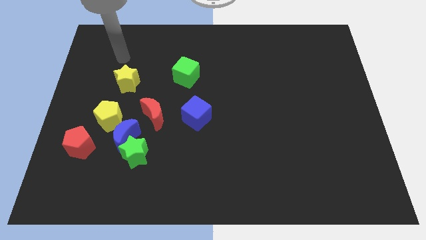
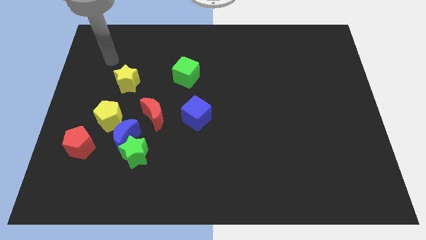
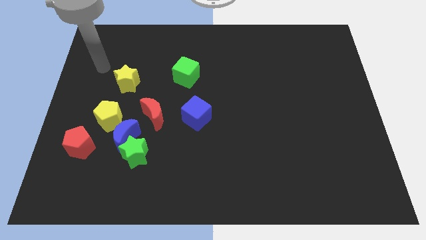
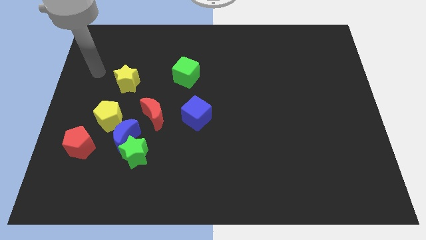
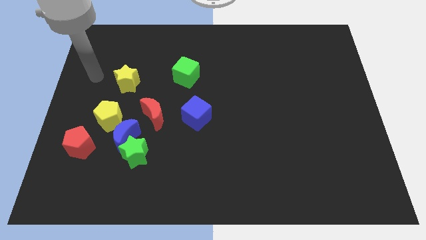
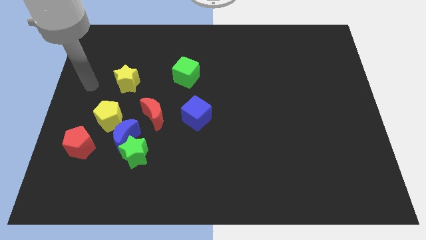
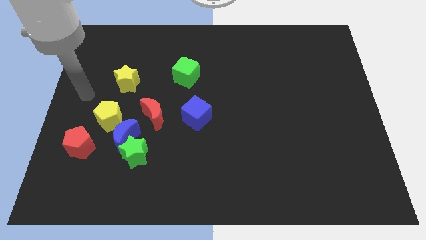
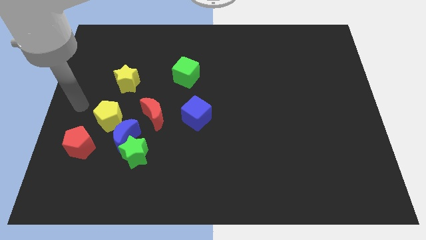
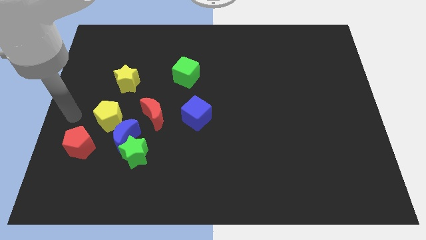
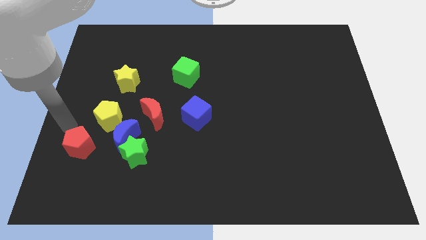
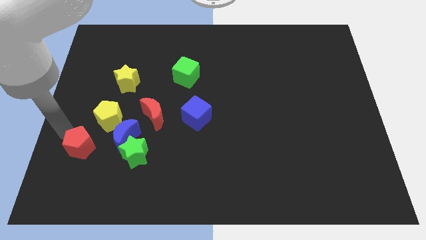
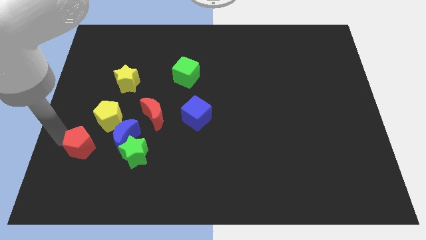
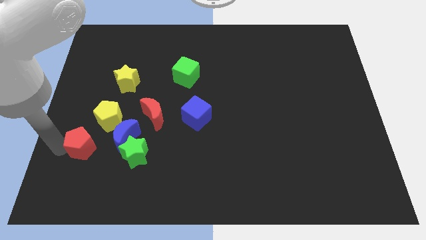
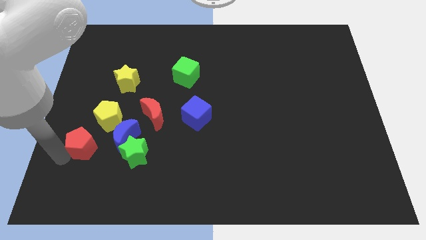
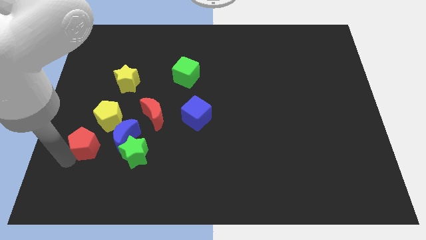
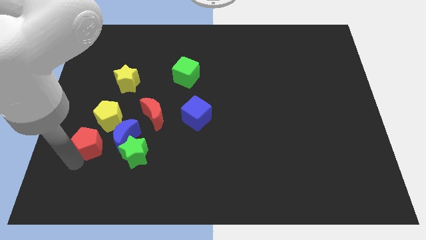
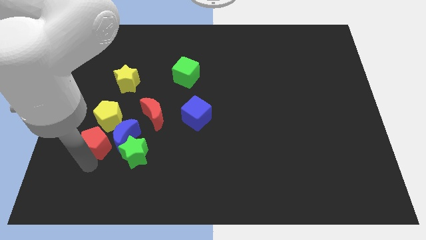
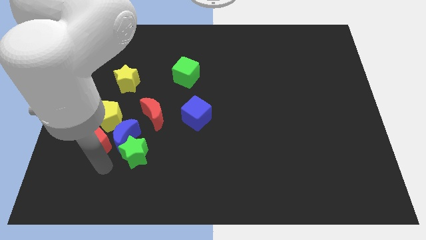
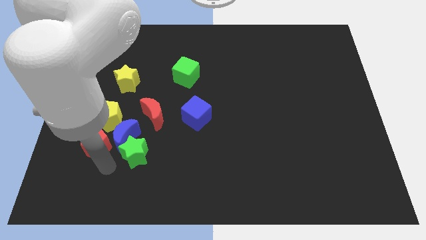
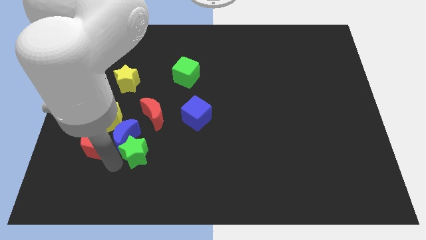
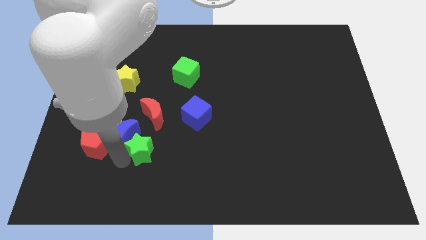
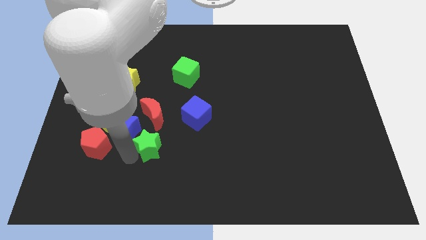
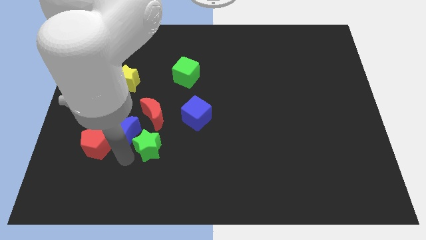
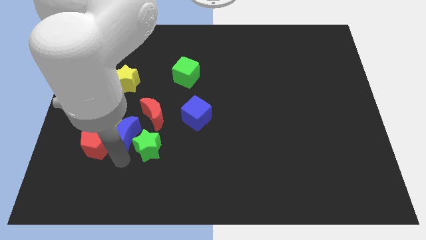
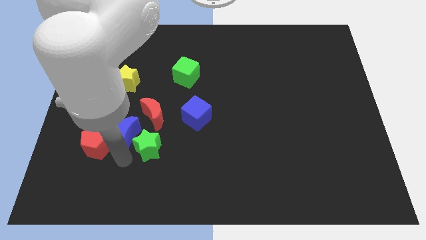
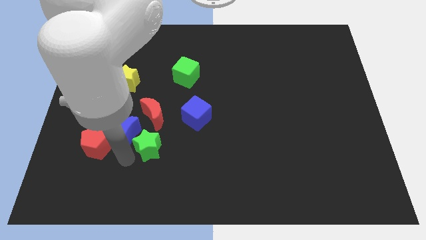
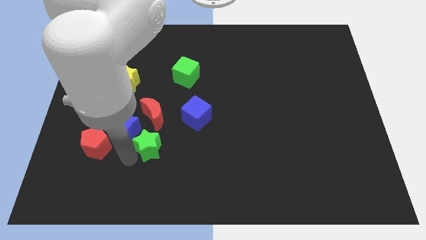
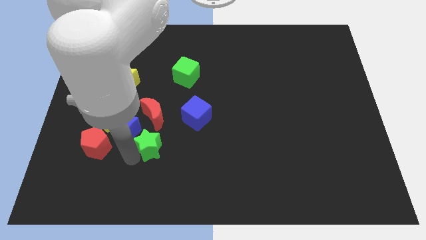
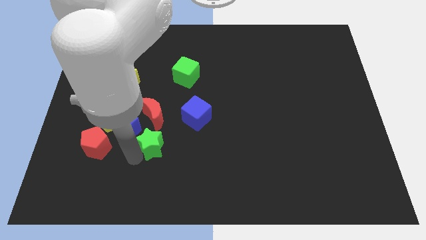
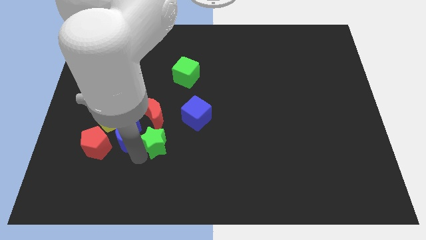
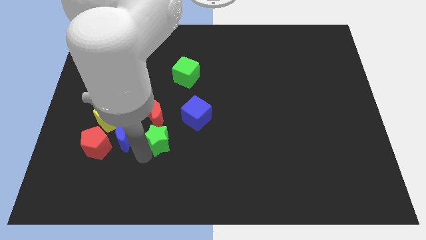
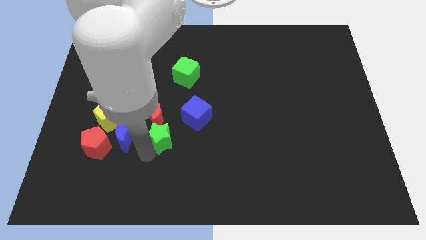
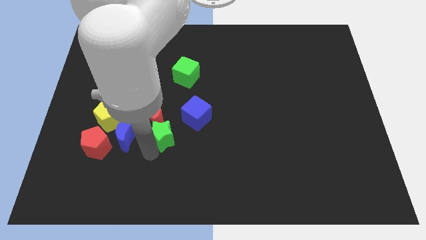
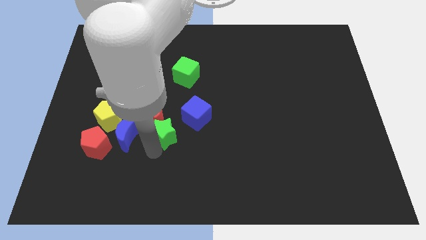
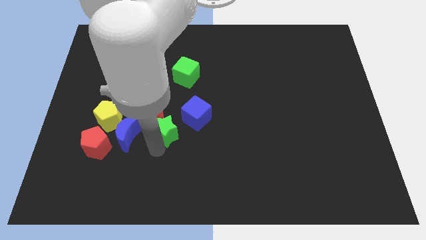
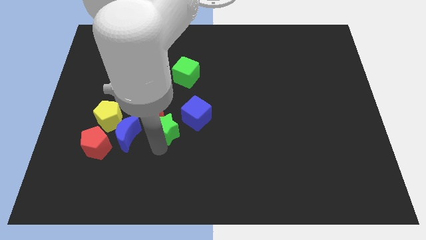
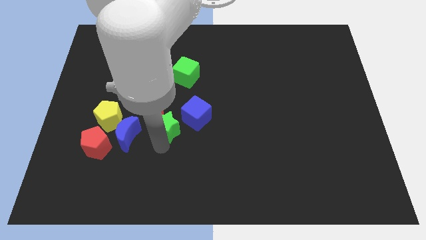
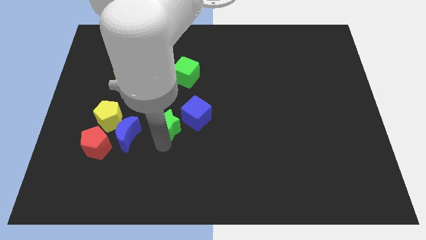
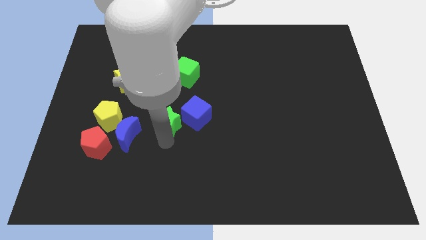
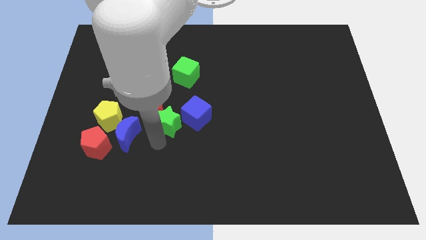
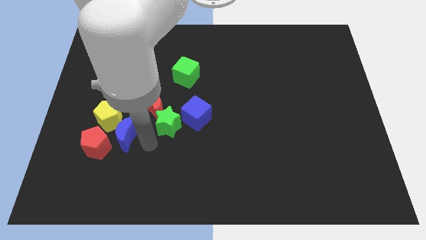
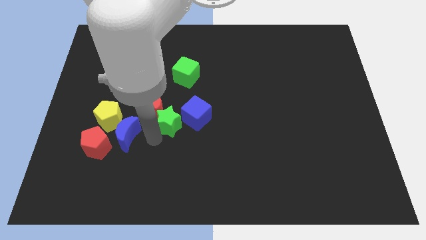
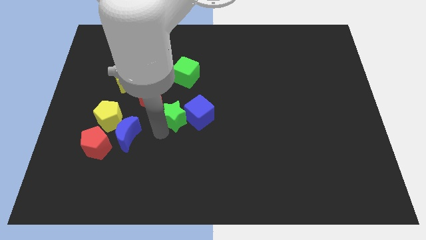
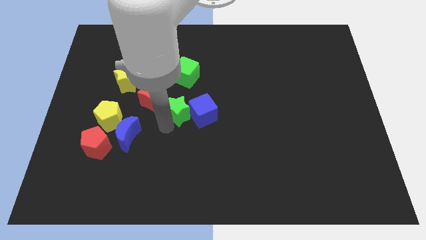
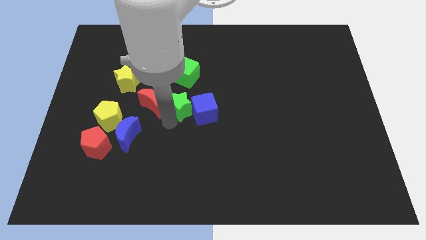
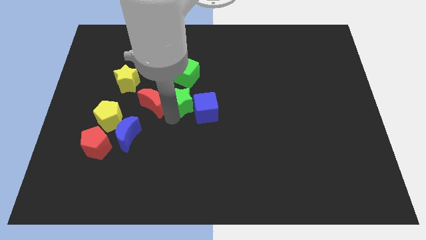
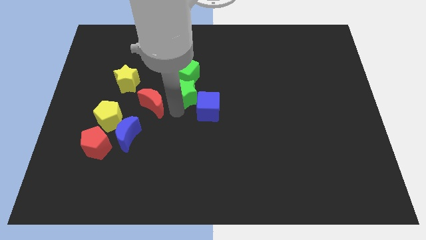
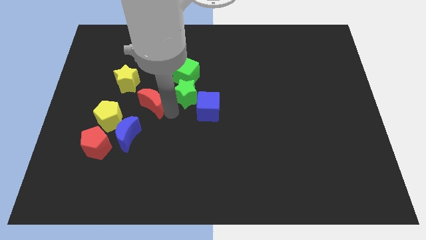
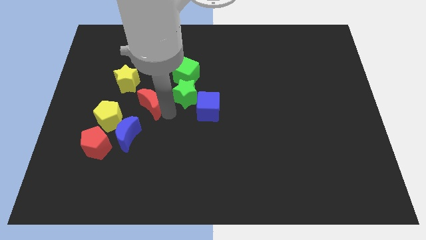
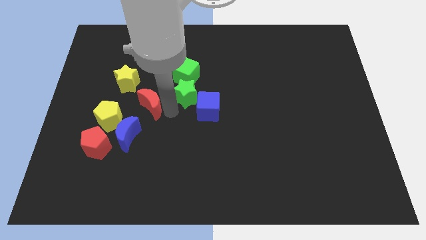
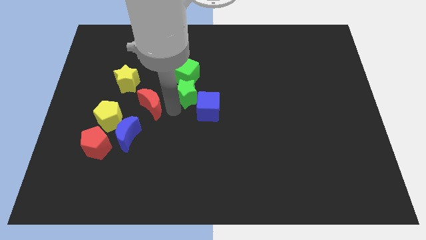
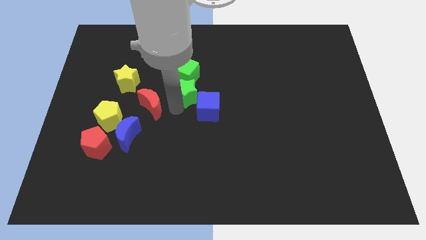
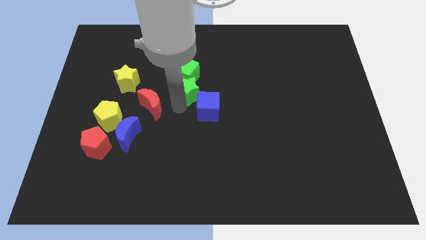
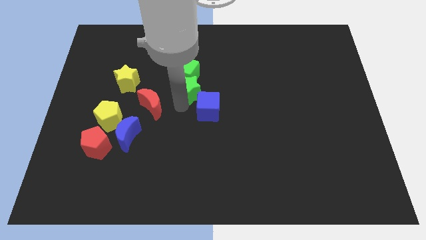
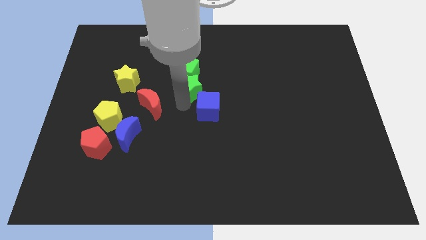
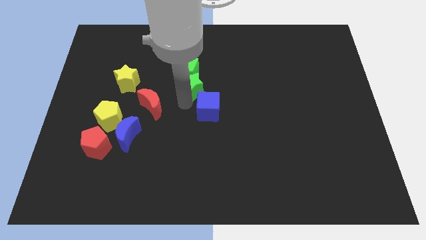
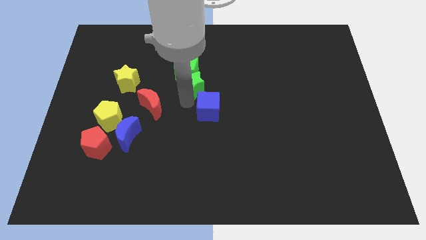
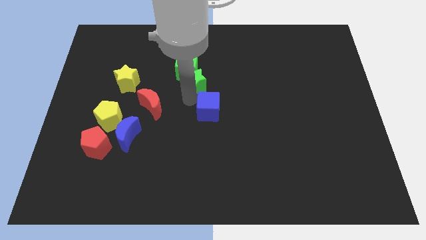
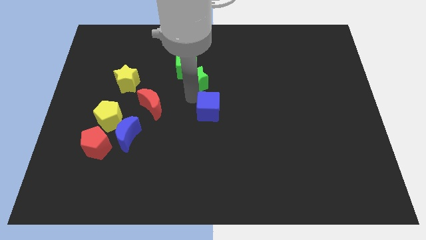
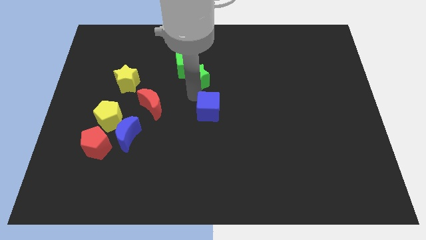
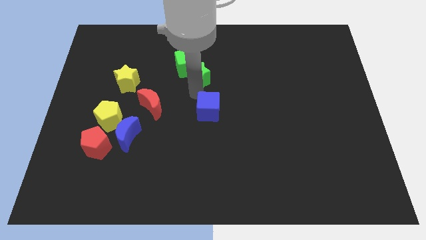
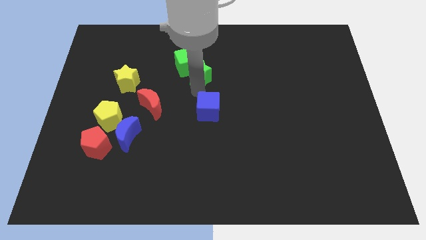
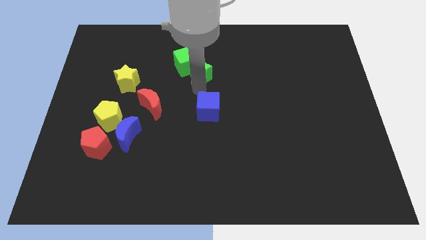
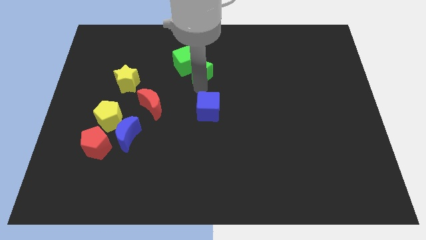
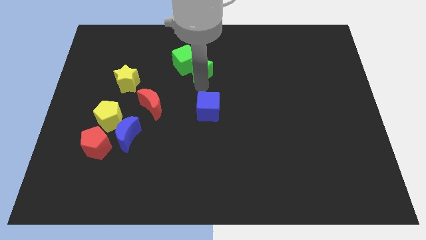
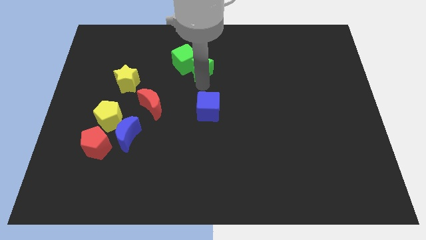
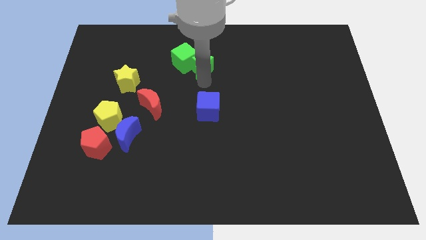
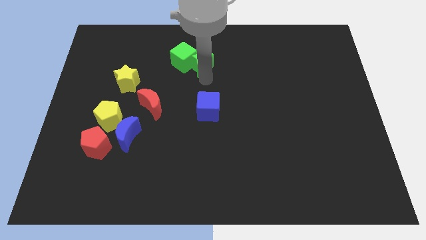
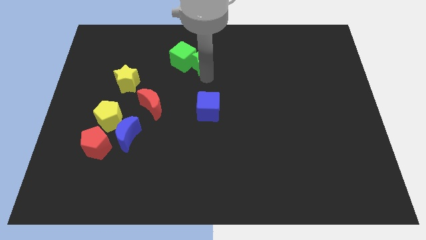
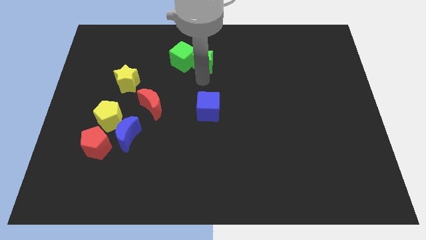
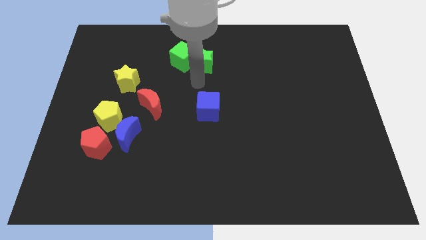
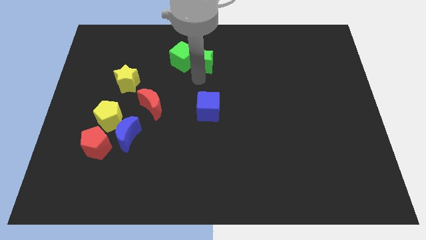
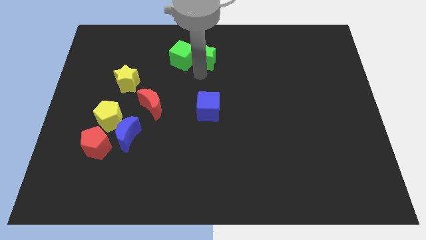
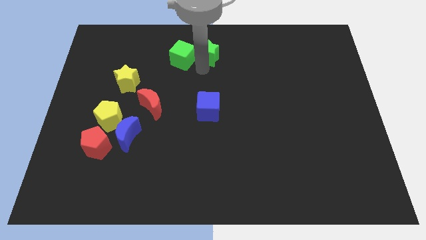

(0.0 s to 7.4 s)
push the green star to the towards your base
